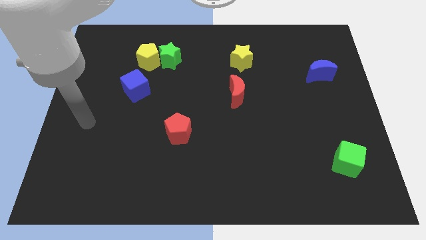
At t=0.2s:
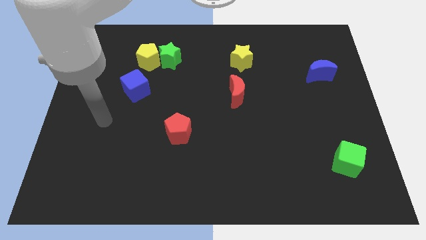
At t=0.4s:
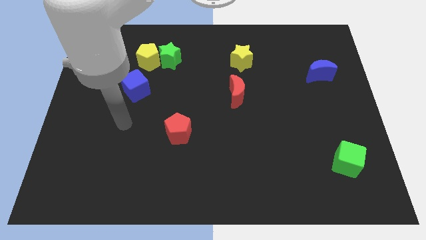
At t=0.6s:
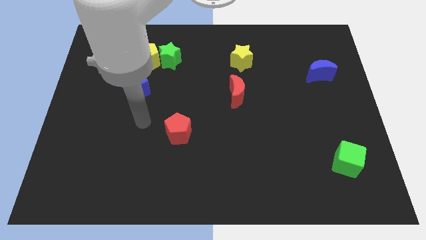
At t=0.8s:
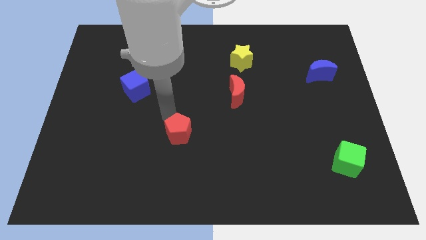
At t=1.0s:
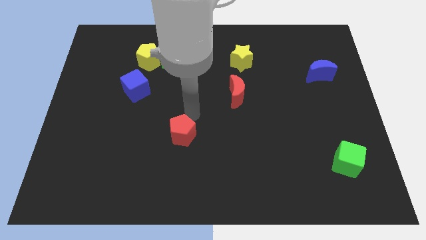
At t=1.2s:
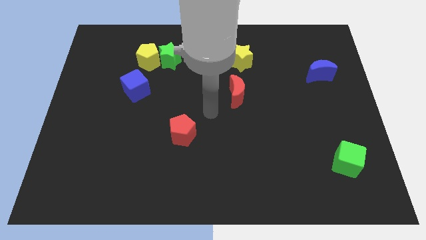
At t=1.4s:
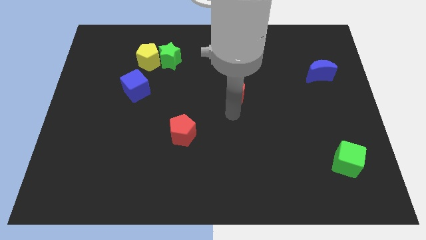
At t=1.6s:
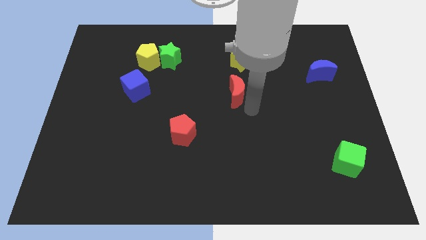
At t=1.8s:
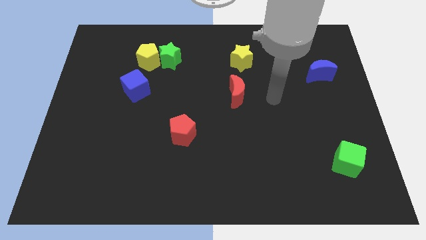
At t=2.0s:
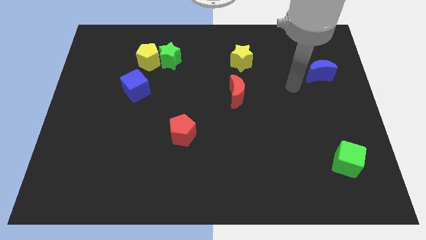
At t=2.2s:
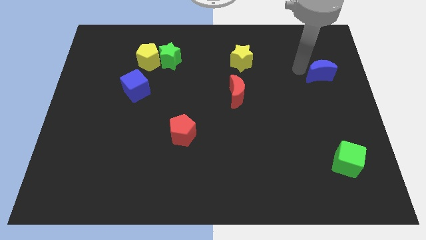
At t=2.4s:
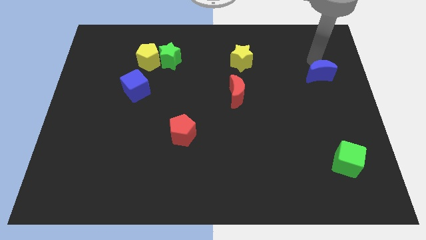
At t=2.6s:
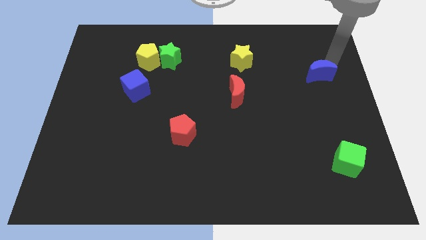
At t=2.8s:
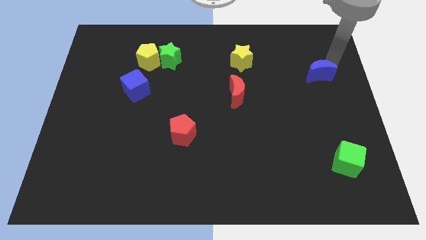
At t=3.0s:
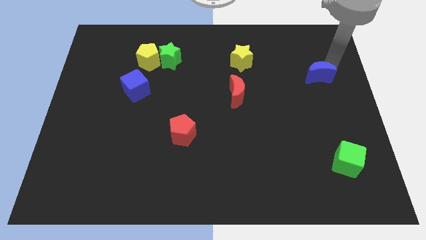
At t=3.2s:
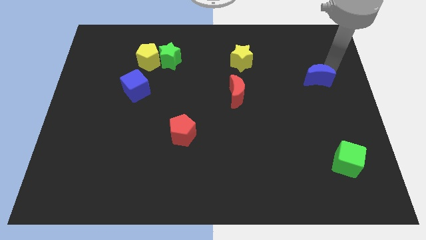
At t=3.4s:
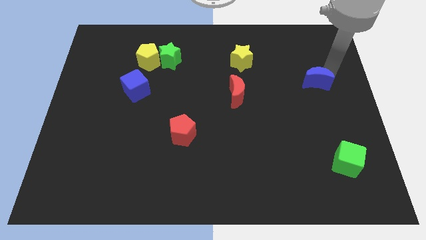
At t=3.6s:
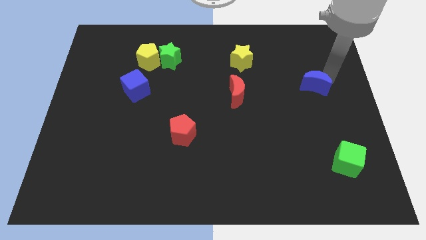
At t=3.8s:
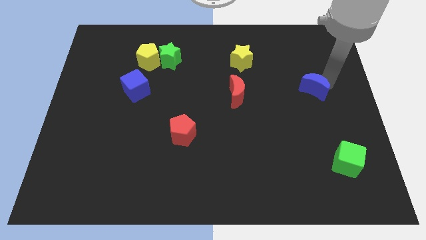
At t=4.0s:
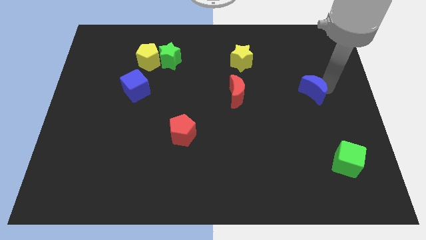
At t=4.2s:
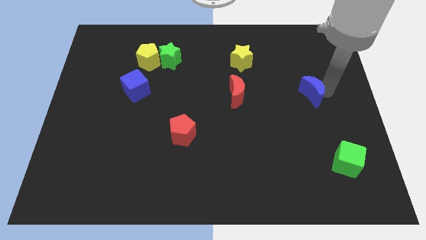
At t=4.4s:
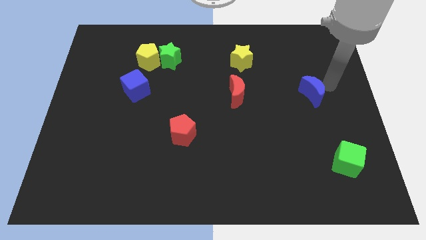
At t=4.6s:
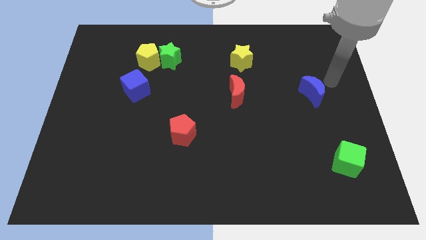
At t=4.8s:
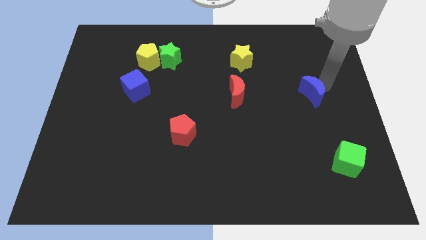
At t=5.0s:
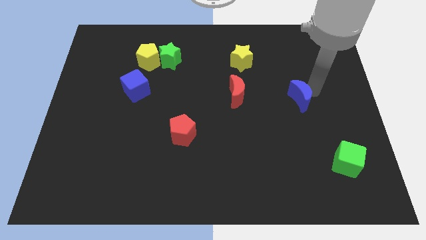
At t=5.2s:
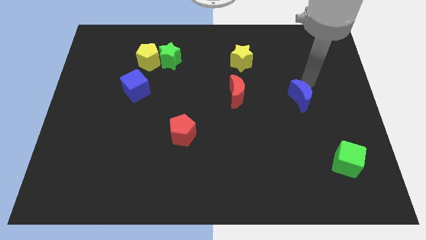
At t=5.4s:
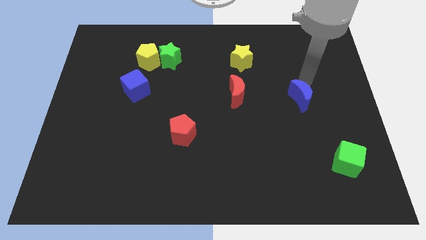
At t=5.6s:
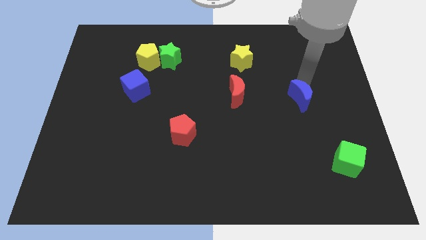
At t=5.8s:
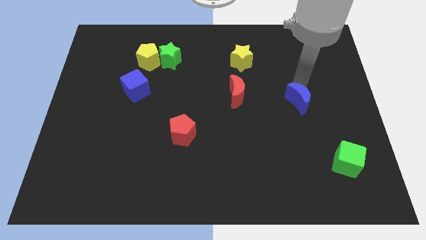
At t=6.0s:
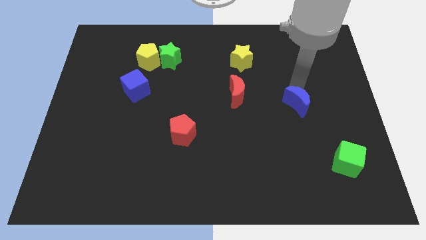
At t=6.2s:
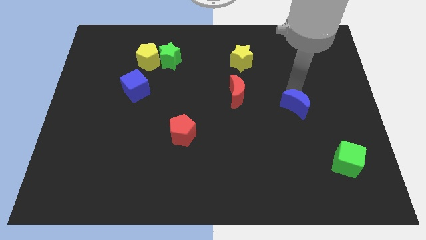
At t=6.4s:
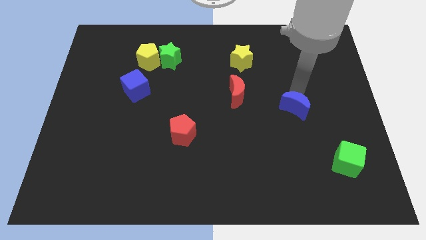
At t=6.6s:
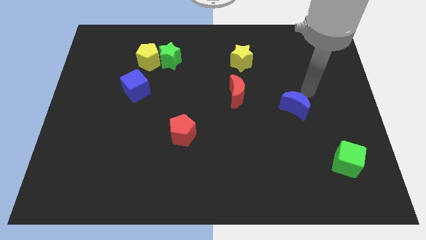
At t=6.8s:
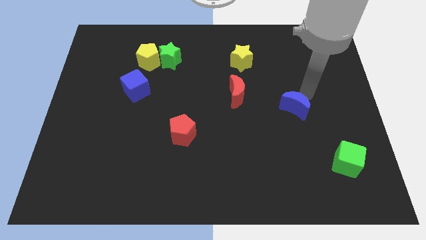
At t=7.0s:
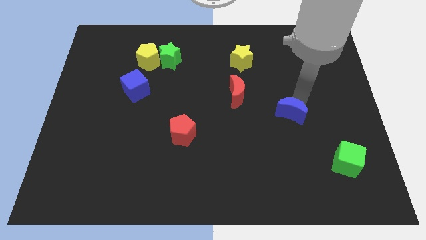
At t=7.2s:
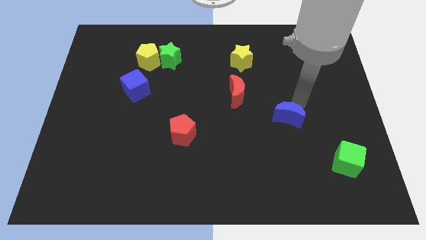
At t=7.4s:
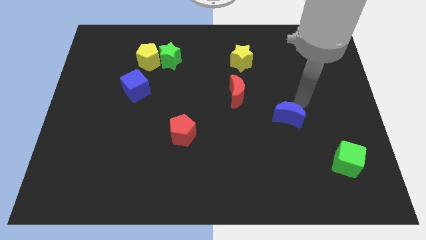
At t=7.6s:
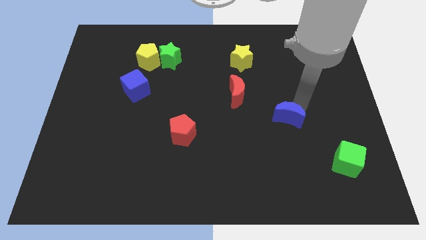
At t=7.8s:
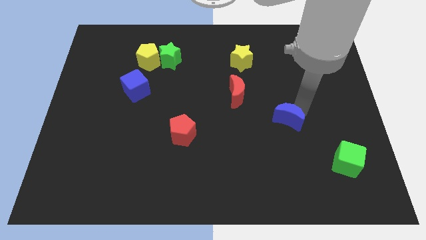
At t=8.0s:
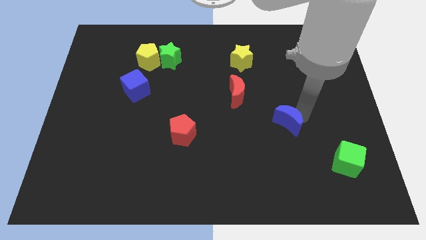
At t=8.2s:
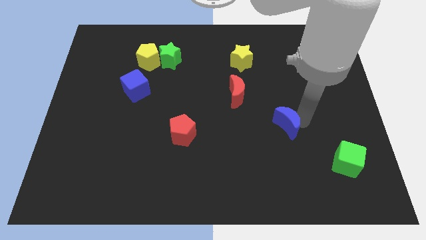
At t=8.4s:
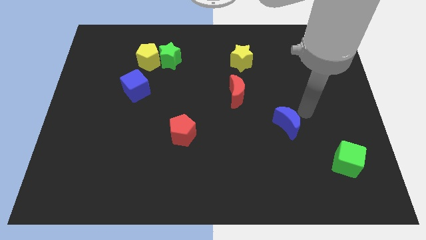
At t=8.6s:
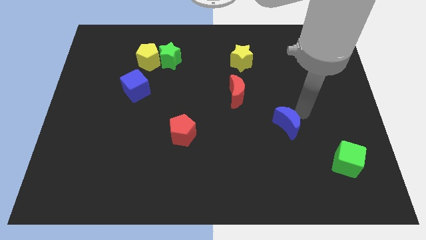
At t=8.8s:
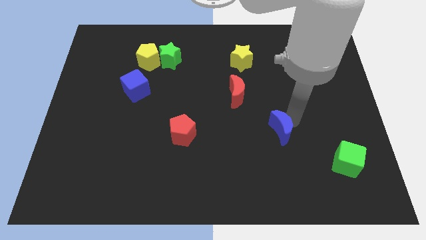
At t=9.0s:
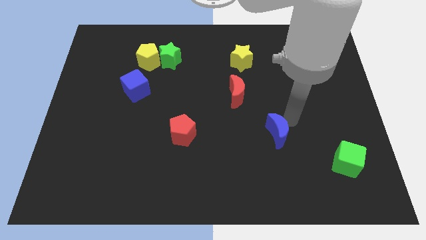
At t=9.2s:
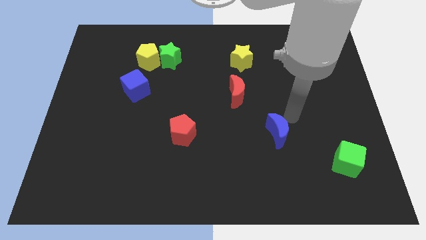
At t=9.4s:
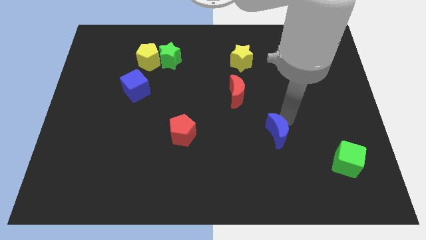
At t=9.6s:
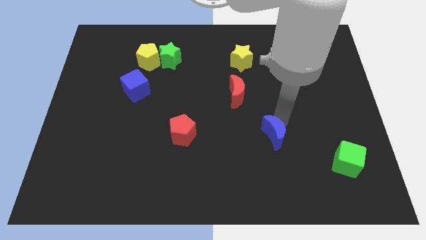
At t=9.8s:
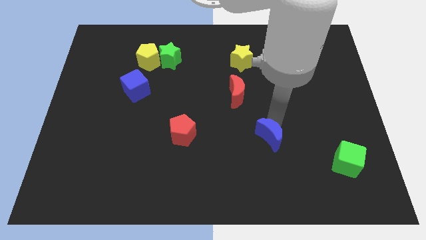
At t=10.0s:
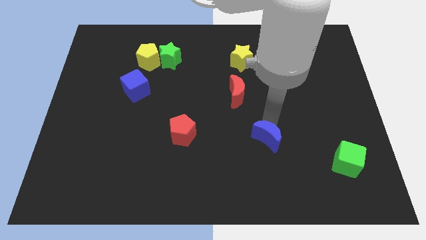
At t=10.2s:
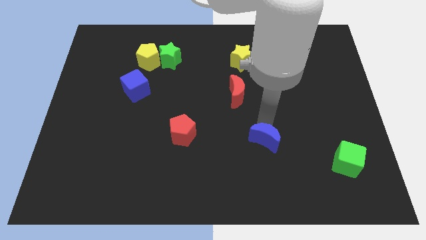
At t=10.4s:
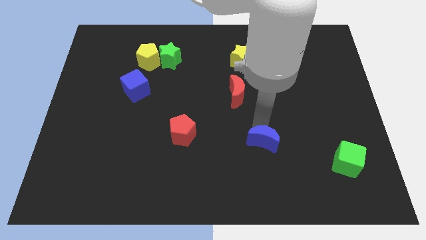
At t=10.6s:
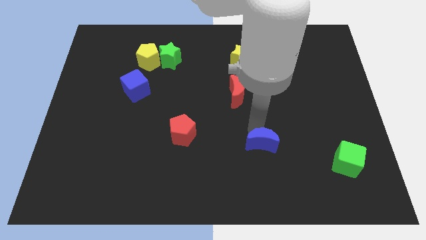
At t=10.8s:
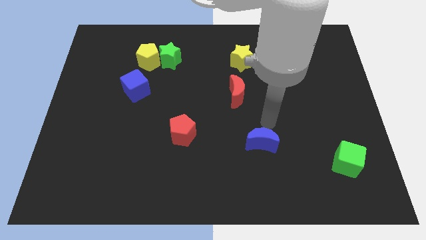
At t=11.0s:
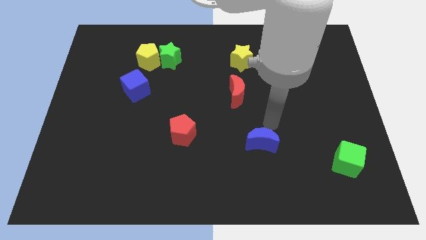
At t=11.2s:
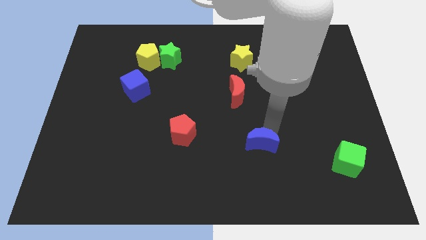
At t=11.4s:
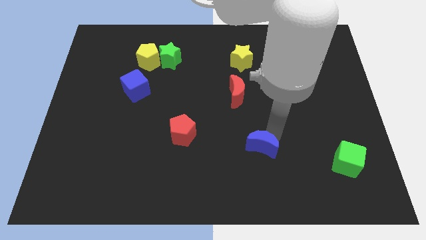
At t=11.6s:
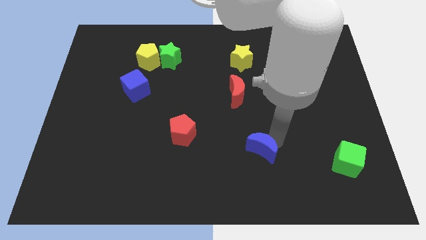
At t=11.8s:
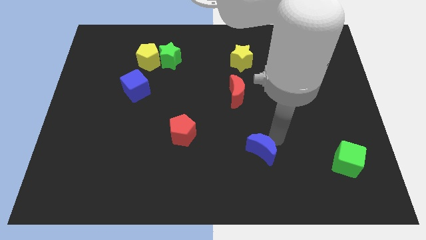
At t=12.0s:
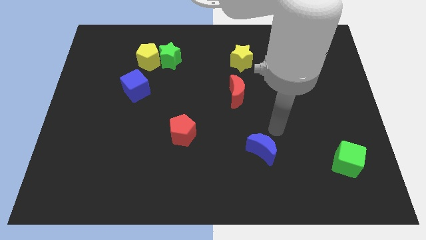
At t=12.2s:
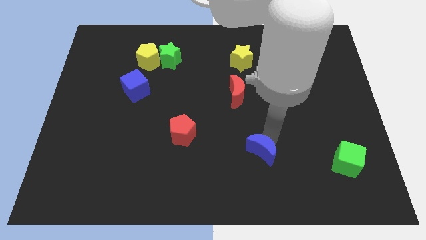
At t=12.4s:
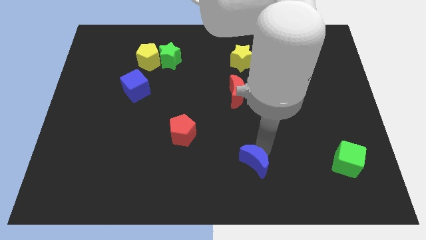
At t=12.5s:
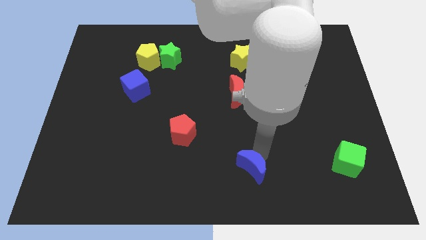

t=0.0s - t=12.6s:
slide the blue moon to the bottom side

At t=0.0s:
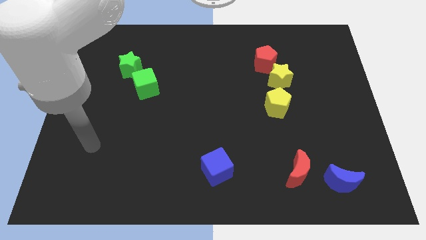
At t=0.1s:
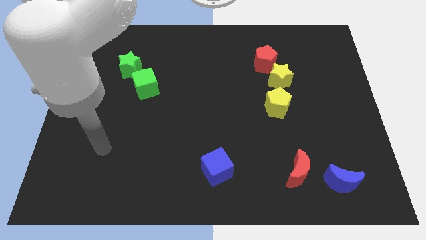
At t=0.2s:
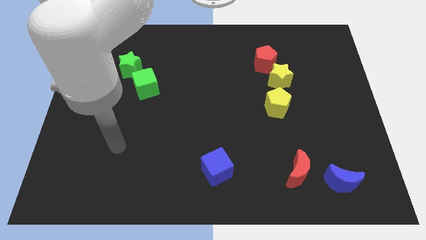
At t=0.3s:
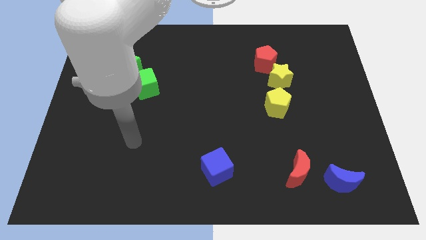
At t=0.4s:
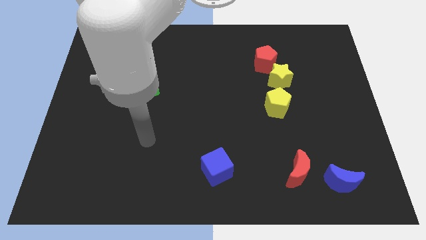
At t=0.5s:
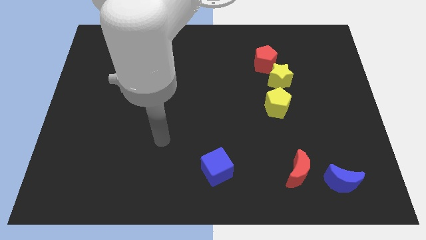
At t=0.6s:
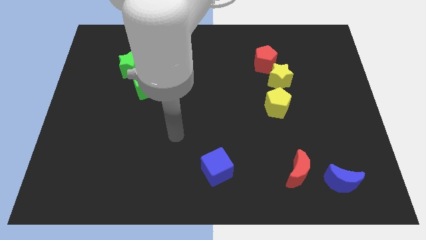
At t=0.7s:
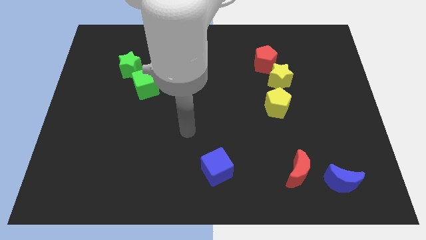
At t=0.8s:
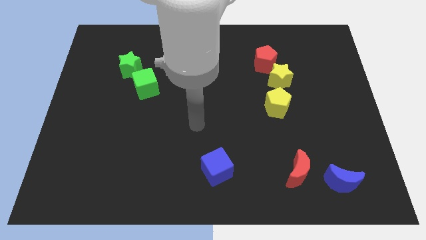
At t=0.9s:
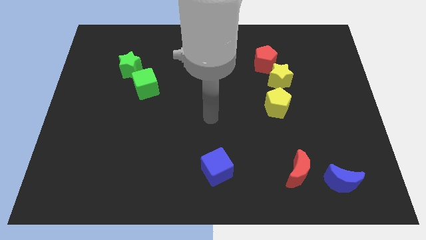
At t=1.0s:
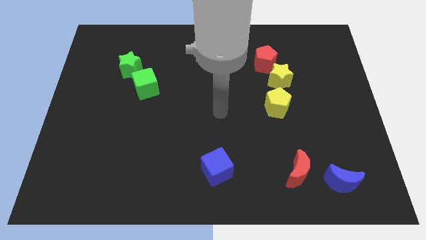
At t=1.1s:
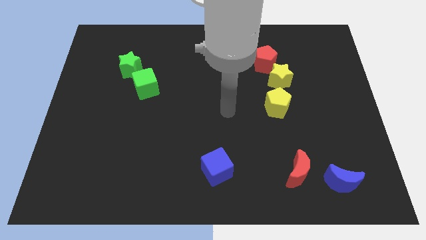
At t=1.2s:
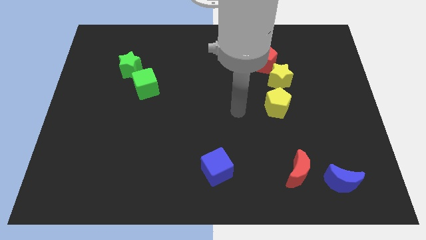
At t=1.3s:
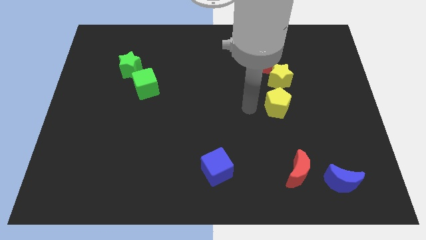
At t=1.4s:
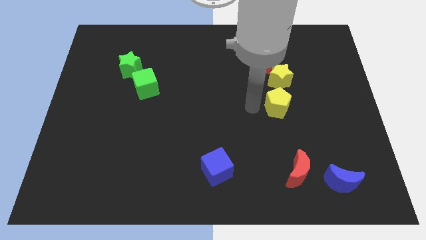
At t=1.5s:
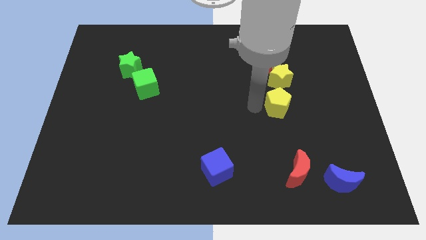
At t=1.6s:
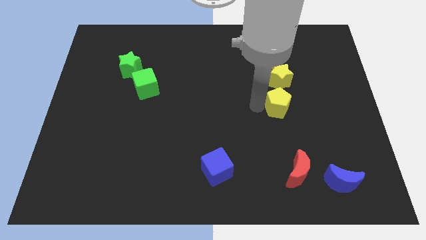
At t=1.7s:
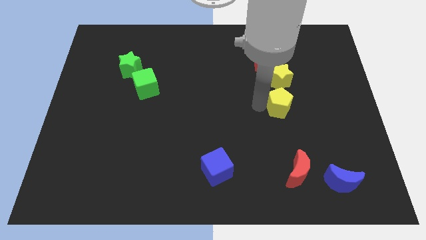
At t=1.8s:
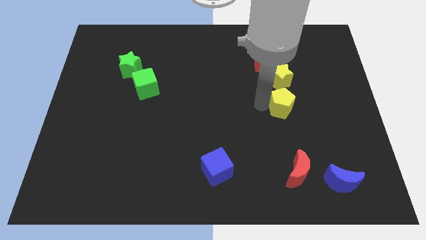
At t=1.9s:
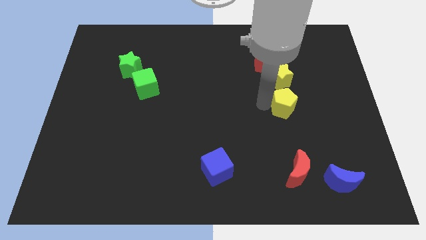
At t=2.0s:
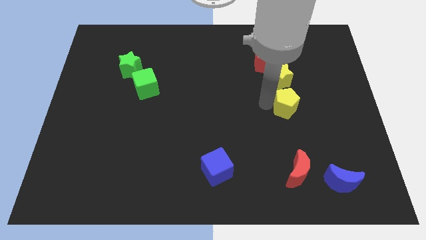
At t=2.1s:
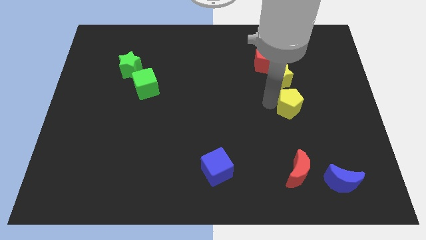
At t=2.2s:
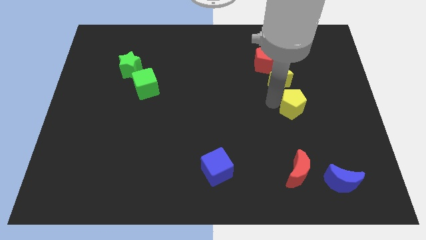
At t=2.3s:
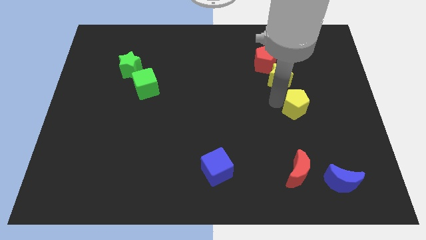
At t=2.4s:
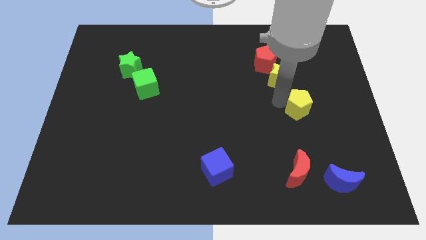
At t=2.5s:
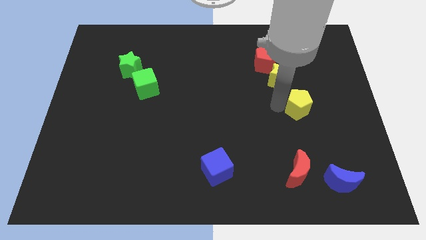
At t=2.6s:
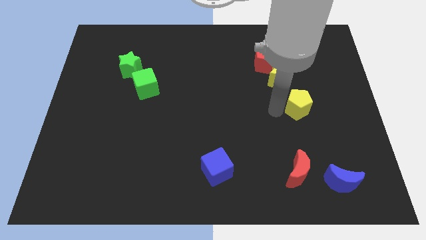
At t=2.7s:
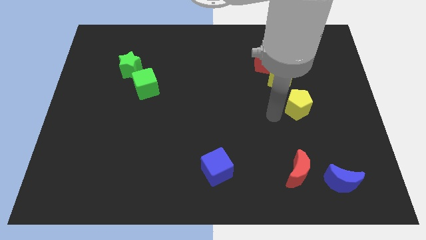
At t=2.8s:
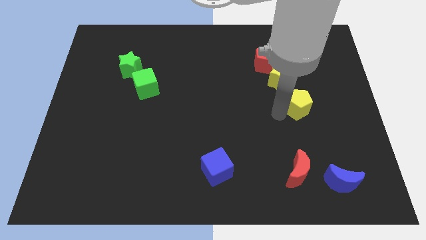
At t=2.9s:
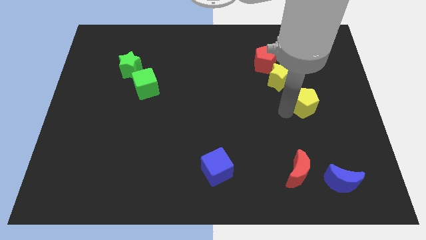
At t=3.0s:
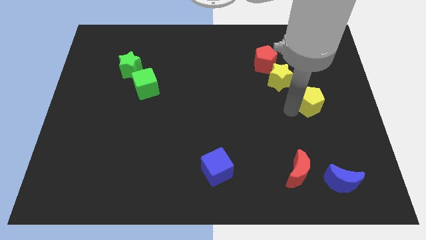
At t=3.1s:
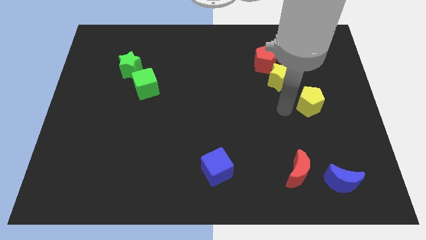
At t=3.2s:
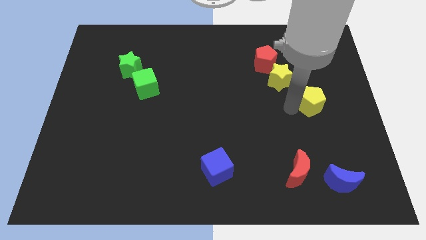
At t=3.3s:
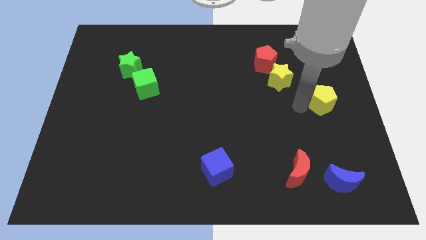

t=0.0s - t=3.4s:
slide the yellow pentagon to the center right
